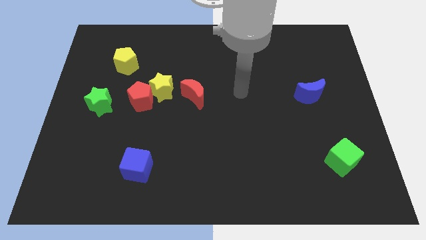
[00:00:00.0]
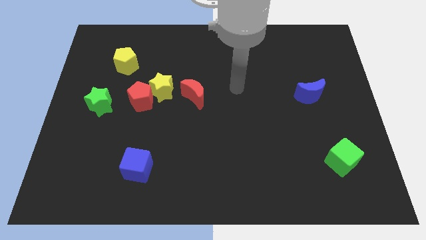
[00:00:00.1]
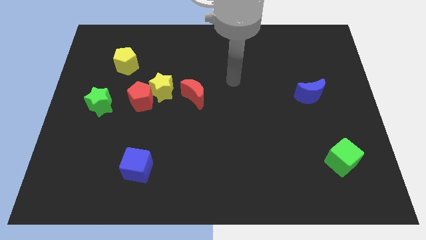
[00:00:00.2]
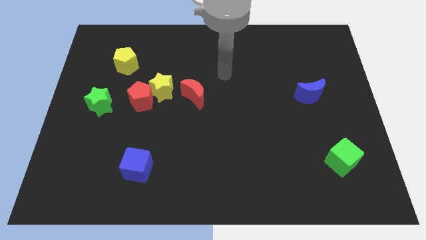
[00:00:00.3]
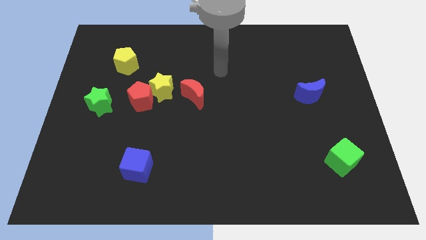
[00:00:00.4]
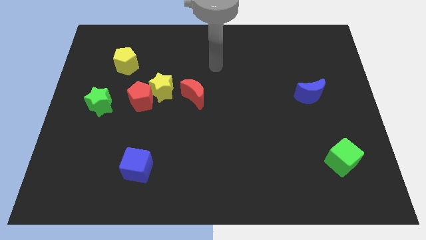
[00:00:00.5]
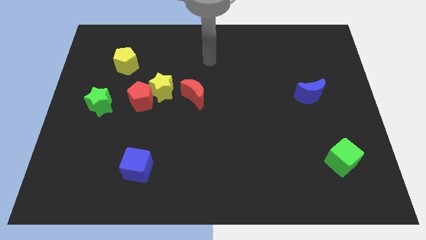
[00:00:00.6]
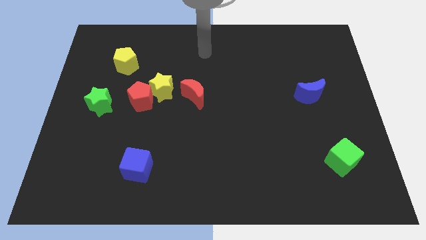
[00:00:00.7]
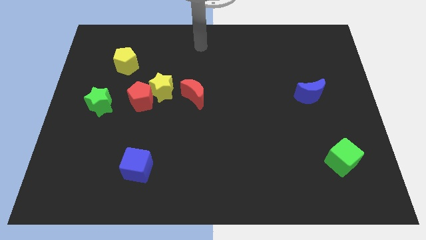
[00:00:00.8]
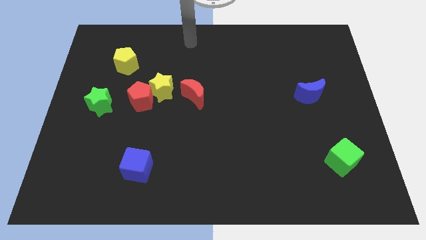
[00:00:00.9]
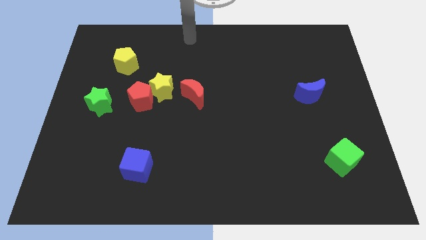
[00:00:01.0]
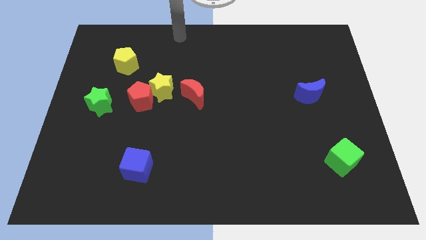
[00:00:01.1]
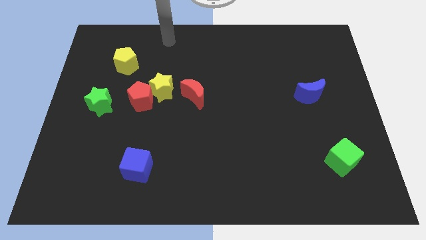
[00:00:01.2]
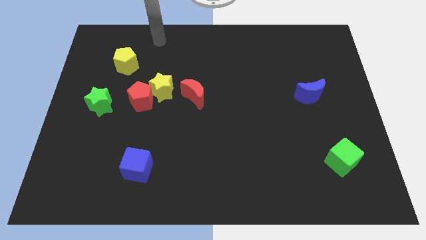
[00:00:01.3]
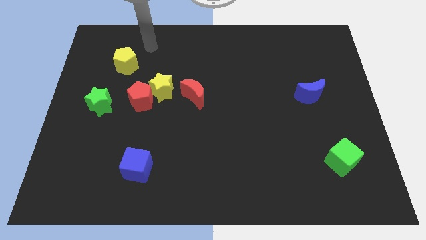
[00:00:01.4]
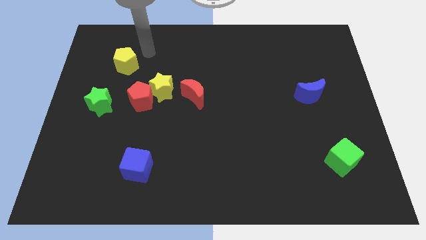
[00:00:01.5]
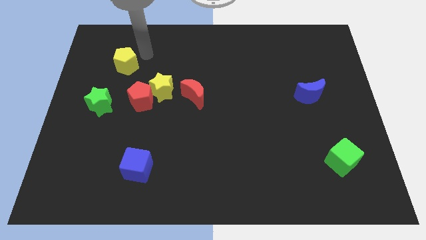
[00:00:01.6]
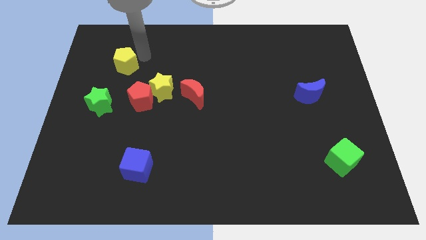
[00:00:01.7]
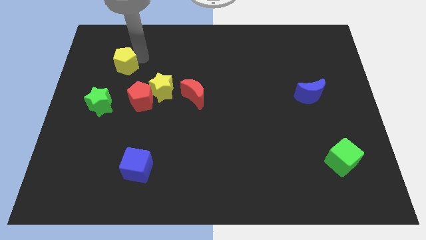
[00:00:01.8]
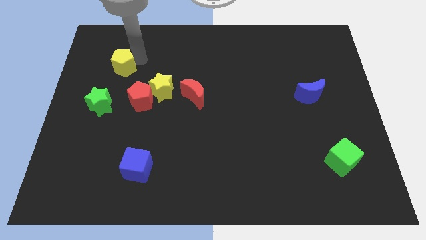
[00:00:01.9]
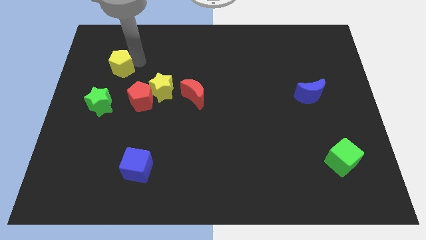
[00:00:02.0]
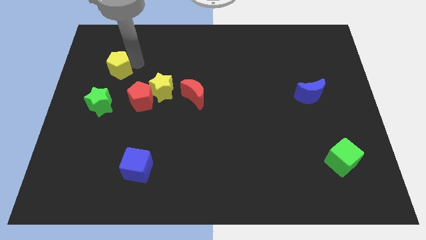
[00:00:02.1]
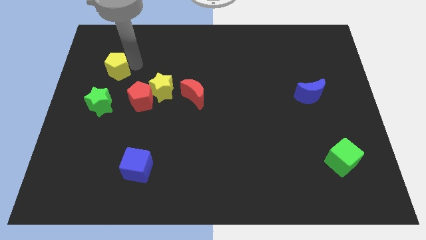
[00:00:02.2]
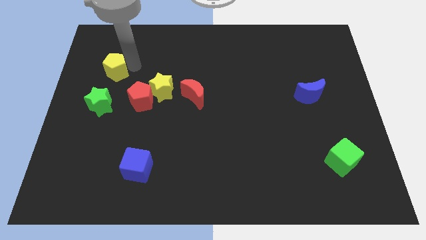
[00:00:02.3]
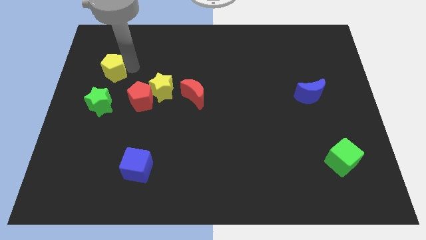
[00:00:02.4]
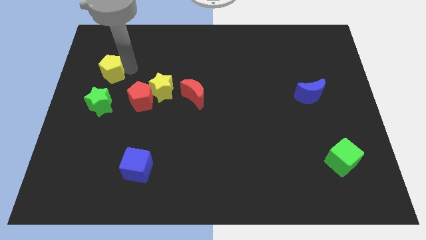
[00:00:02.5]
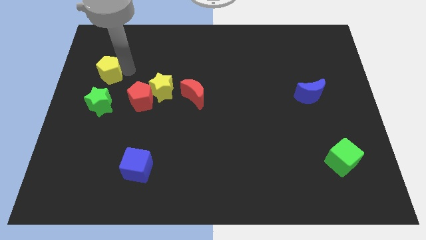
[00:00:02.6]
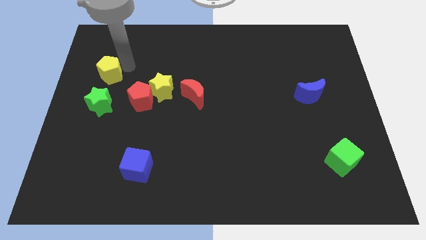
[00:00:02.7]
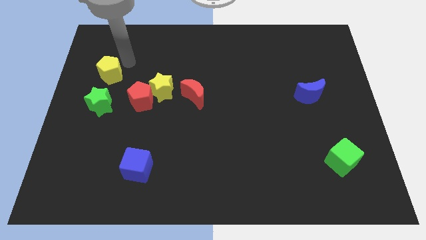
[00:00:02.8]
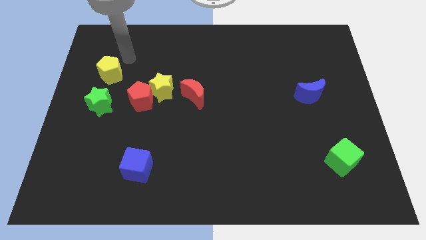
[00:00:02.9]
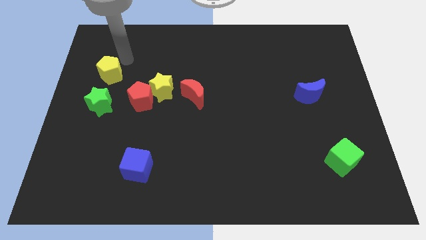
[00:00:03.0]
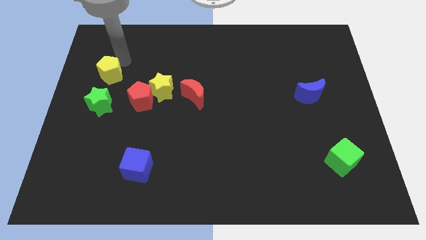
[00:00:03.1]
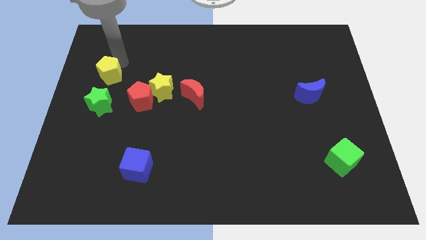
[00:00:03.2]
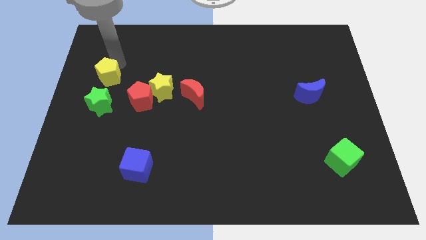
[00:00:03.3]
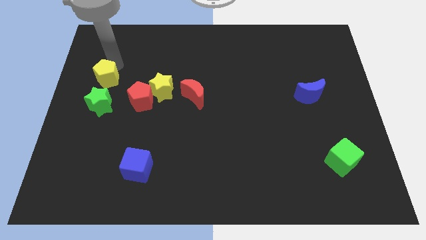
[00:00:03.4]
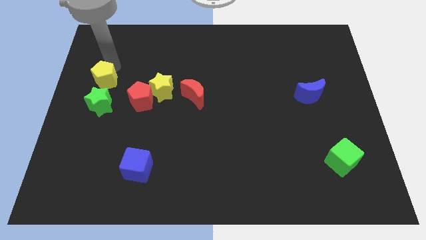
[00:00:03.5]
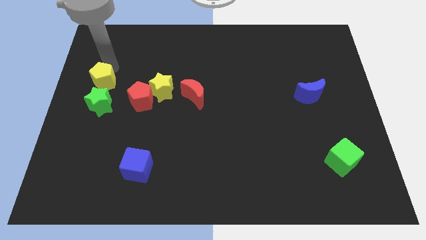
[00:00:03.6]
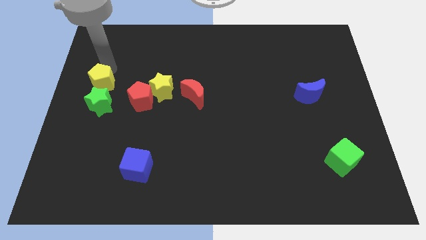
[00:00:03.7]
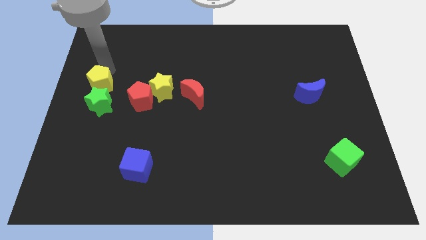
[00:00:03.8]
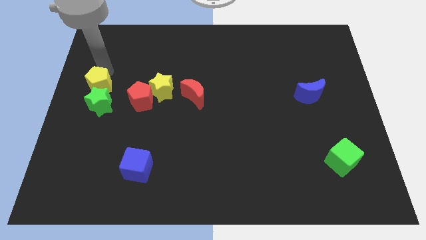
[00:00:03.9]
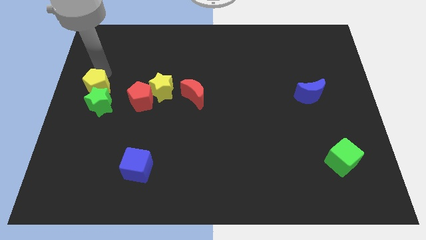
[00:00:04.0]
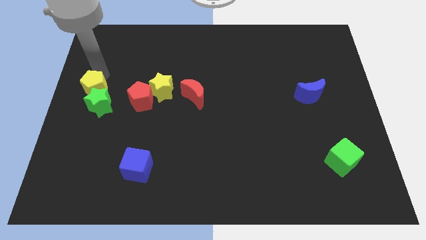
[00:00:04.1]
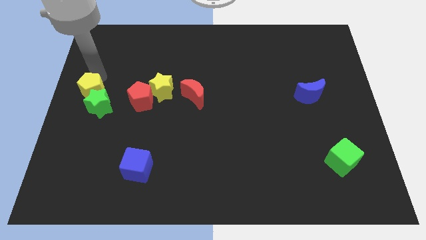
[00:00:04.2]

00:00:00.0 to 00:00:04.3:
slightly slide the yellow pentagon downwards

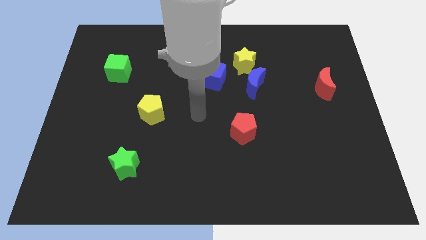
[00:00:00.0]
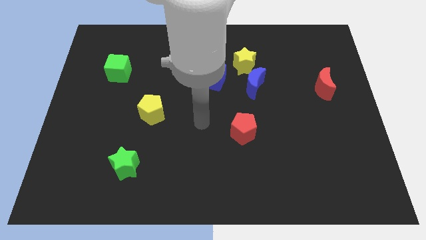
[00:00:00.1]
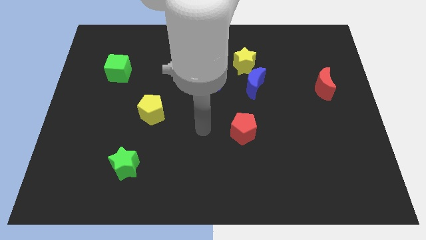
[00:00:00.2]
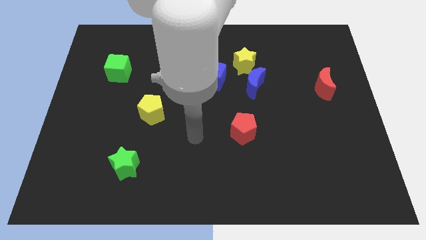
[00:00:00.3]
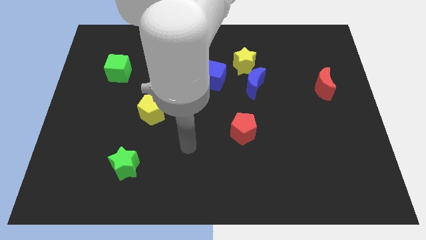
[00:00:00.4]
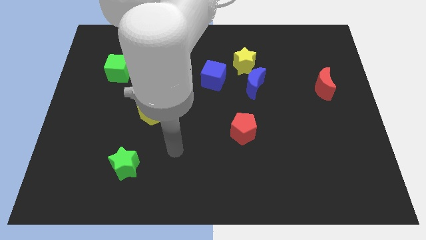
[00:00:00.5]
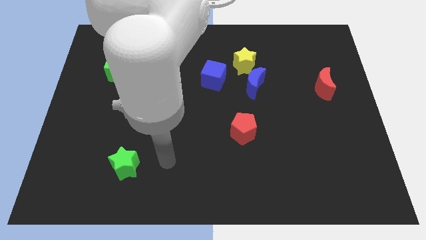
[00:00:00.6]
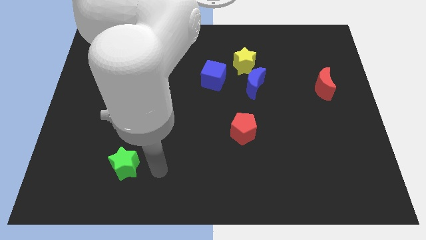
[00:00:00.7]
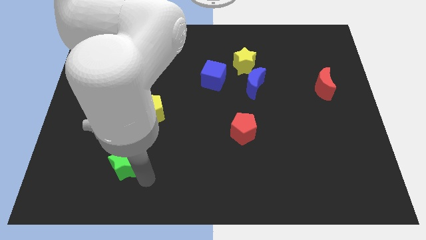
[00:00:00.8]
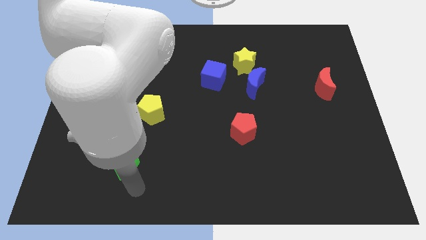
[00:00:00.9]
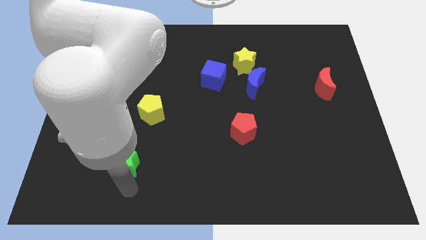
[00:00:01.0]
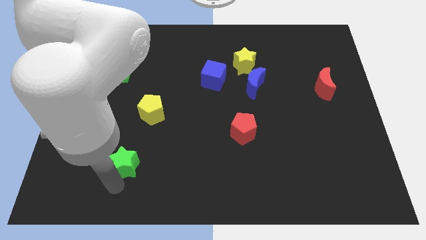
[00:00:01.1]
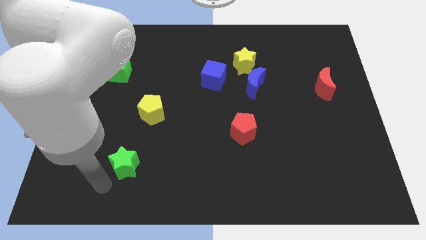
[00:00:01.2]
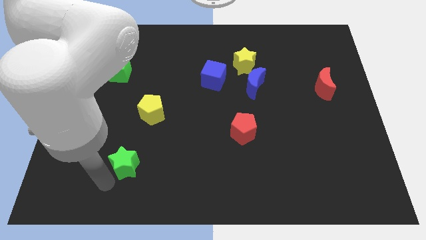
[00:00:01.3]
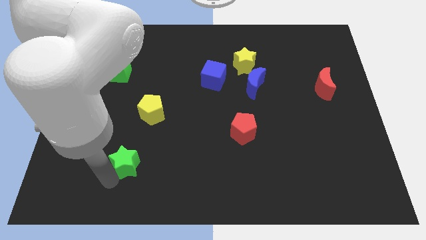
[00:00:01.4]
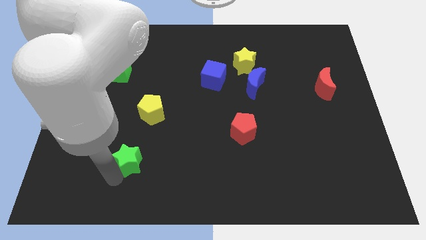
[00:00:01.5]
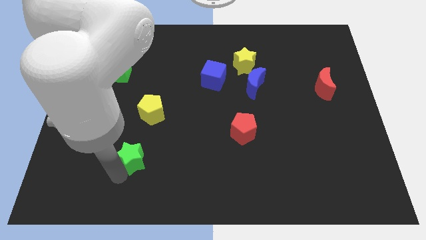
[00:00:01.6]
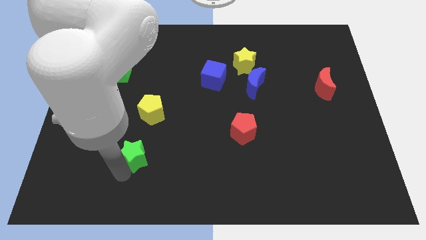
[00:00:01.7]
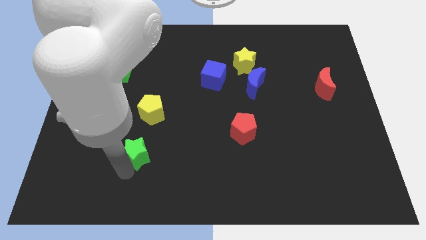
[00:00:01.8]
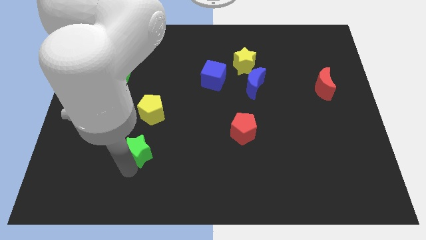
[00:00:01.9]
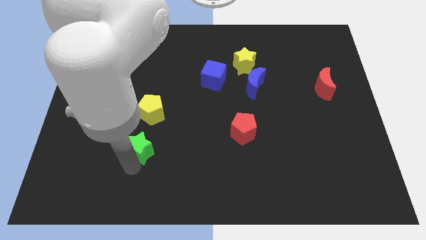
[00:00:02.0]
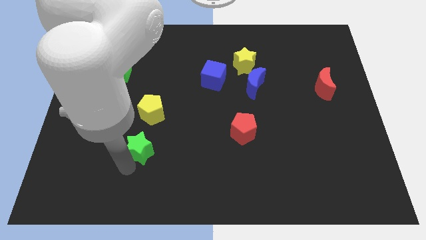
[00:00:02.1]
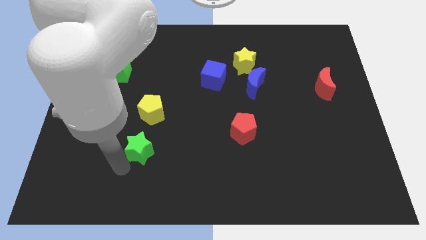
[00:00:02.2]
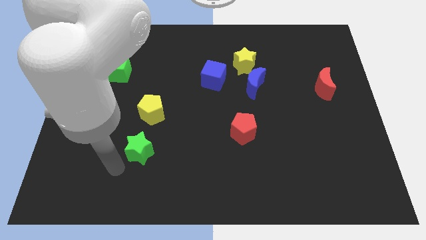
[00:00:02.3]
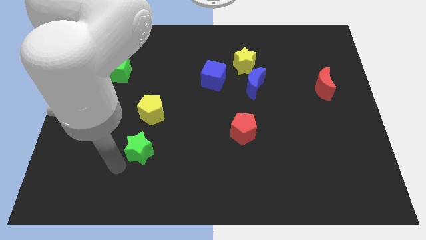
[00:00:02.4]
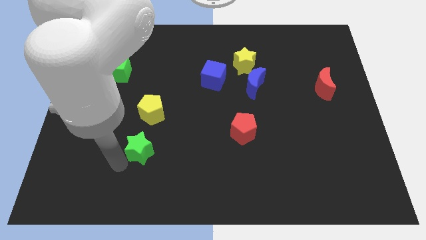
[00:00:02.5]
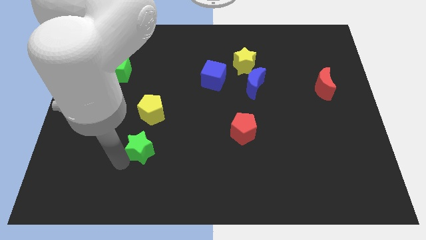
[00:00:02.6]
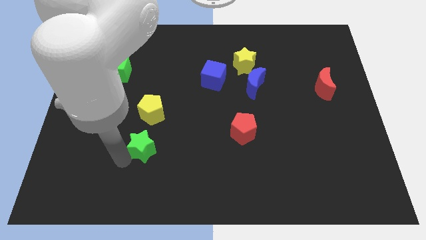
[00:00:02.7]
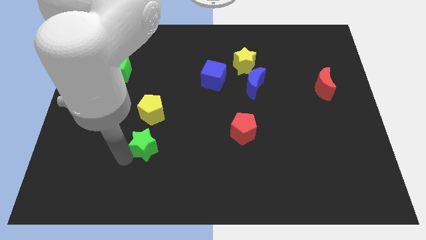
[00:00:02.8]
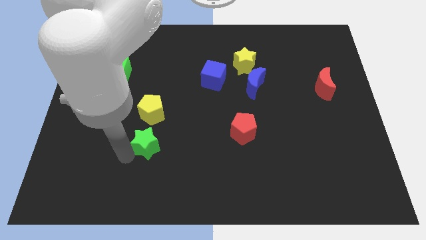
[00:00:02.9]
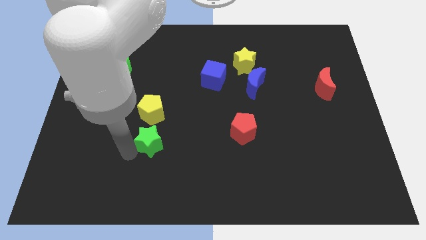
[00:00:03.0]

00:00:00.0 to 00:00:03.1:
push the green star upwards and to the right a bit

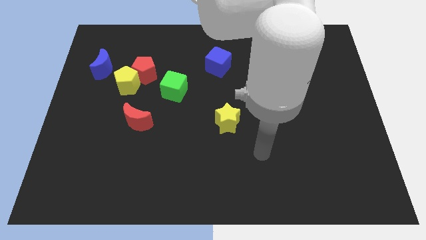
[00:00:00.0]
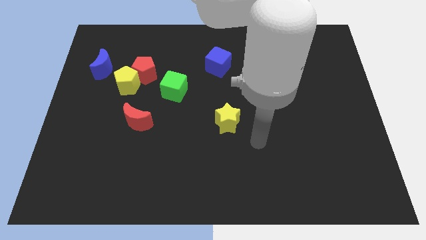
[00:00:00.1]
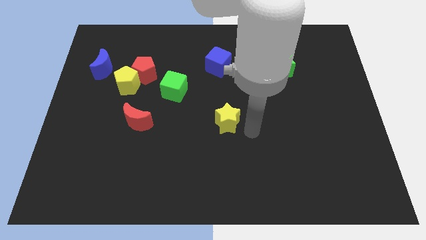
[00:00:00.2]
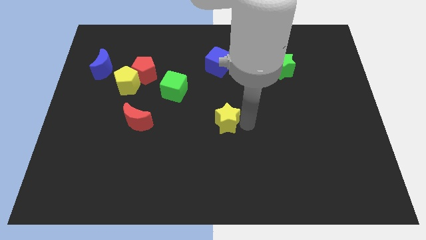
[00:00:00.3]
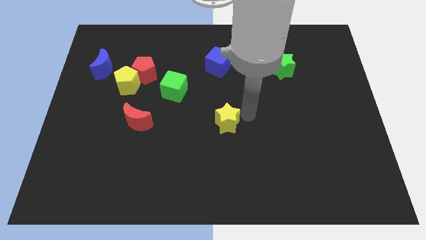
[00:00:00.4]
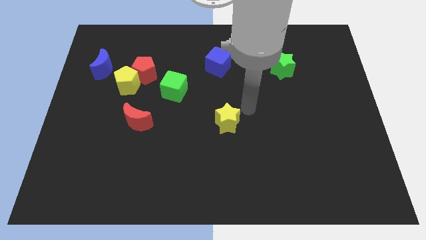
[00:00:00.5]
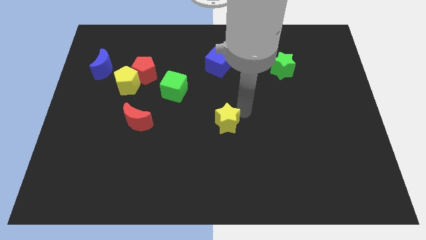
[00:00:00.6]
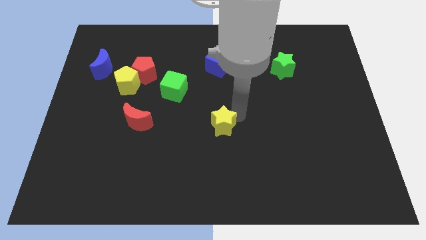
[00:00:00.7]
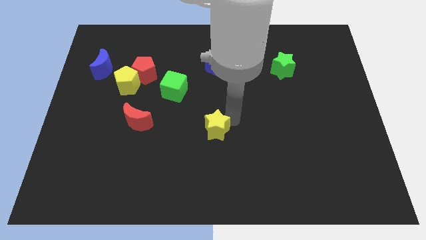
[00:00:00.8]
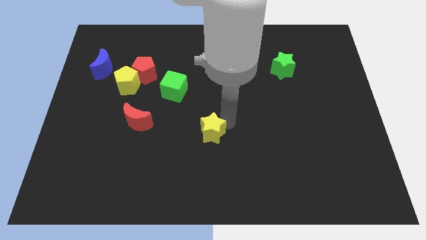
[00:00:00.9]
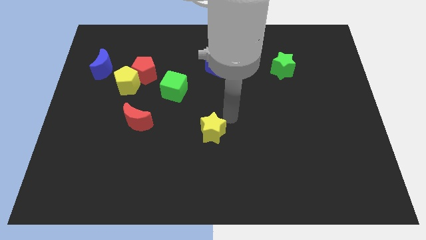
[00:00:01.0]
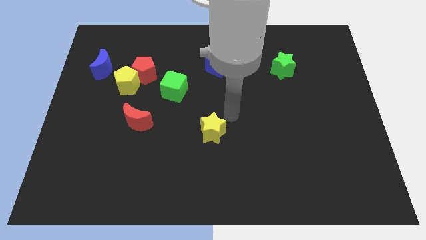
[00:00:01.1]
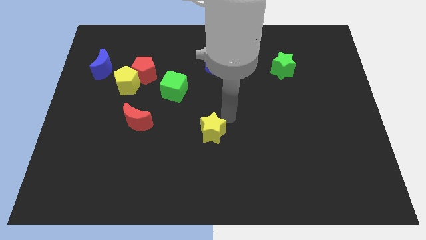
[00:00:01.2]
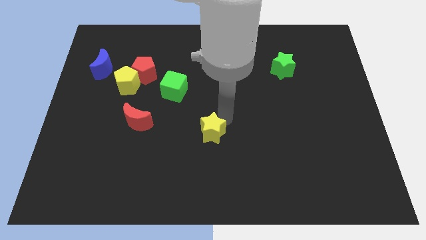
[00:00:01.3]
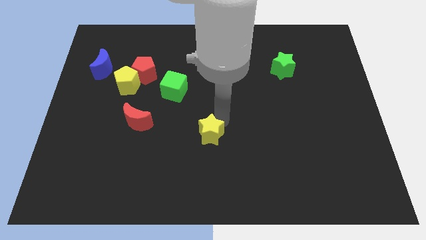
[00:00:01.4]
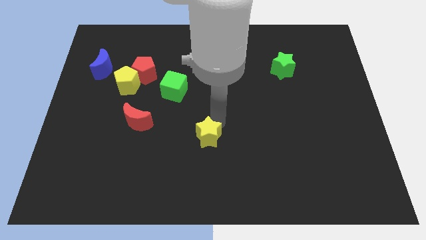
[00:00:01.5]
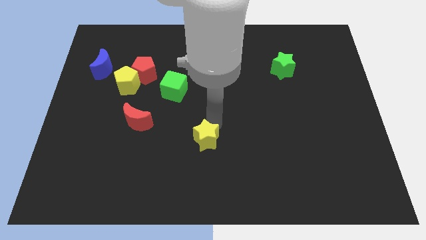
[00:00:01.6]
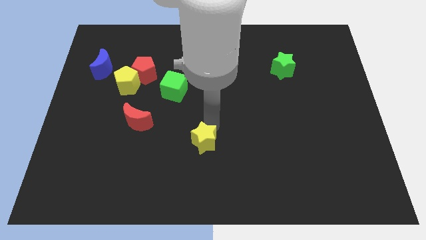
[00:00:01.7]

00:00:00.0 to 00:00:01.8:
slightly move the yellow star downwards and left
